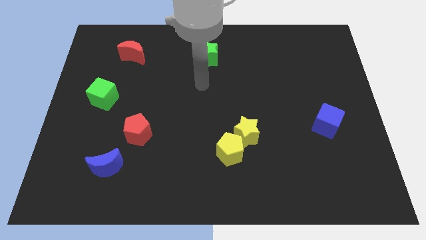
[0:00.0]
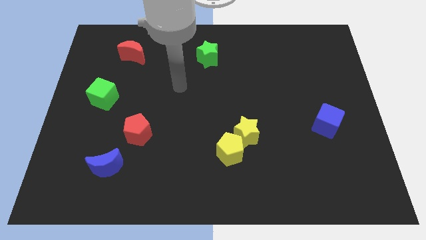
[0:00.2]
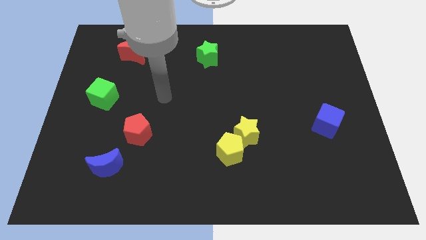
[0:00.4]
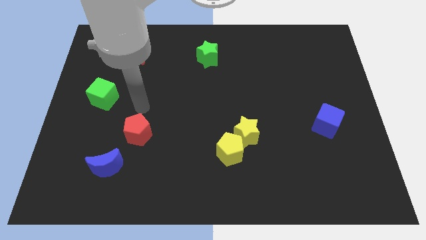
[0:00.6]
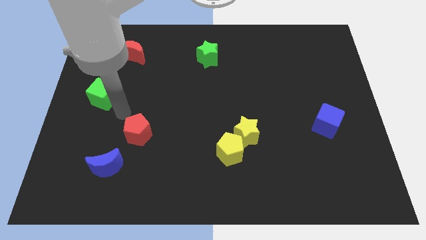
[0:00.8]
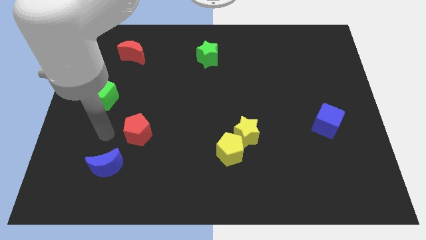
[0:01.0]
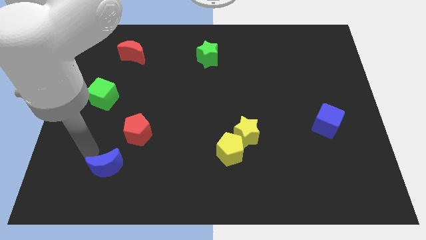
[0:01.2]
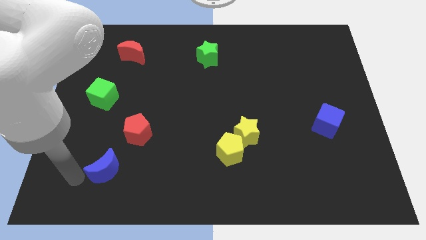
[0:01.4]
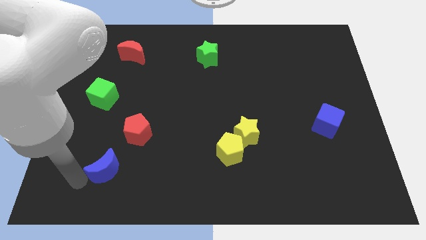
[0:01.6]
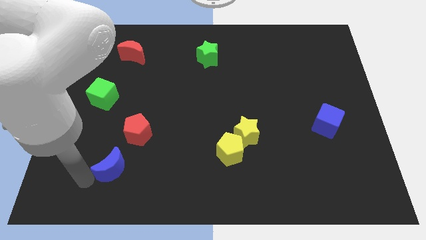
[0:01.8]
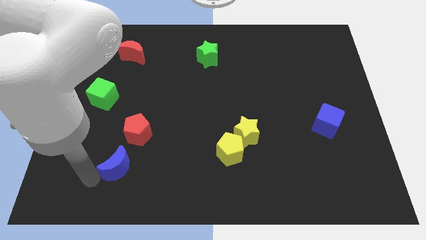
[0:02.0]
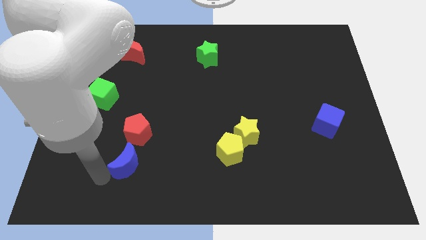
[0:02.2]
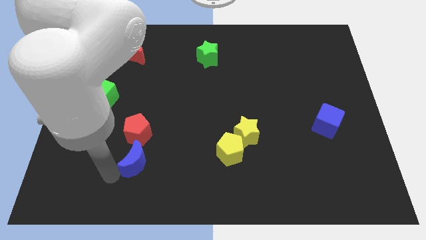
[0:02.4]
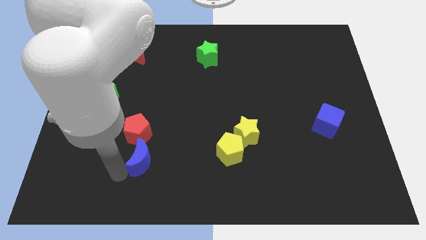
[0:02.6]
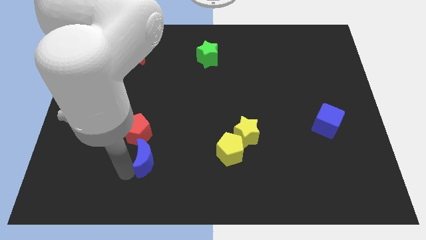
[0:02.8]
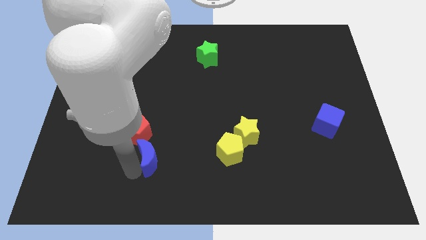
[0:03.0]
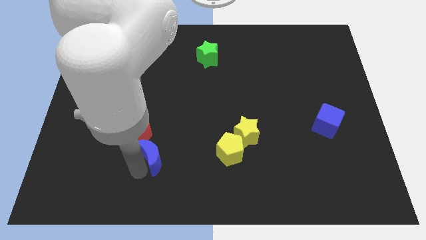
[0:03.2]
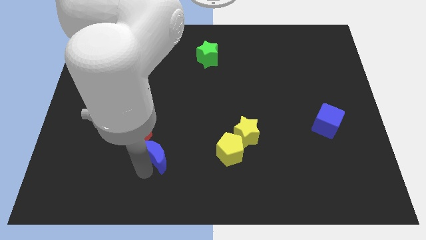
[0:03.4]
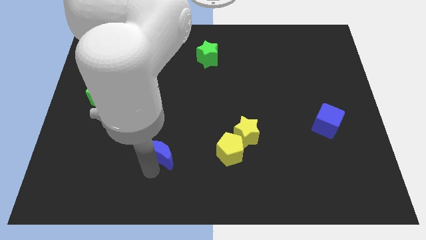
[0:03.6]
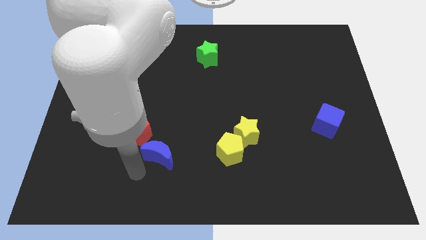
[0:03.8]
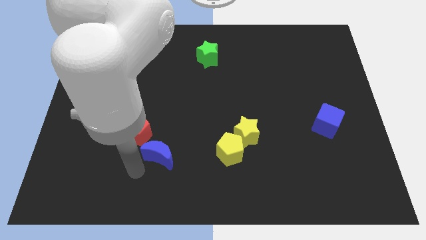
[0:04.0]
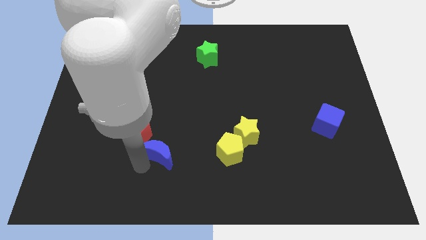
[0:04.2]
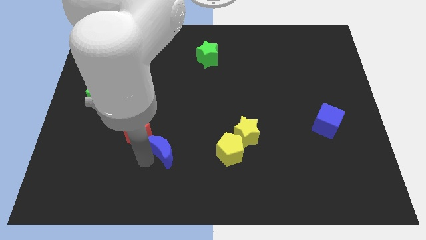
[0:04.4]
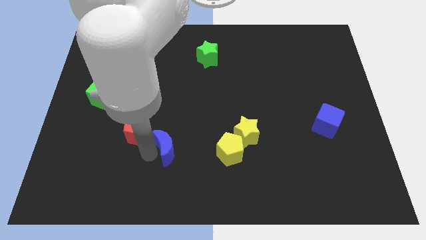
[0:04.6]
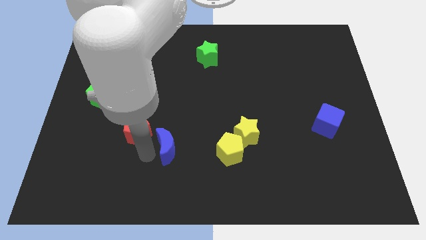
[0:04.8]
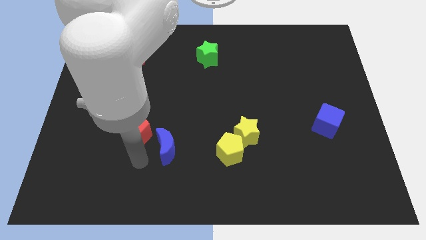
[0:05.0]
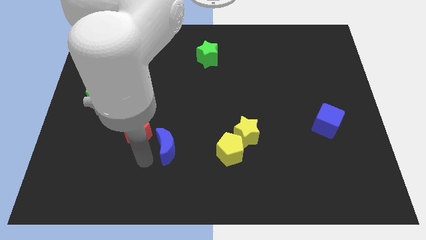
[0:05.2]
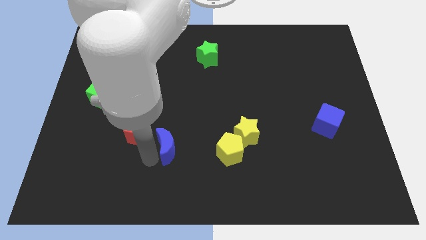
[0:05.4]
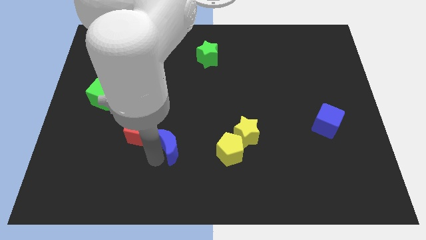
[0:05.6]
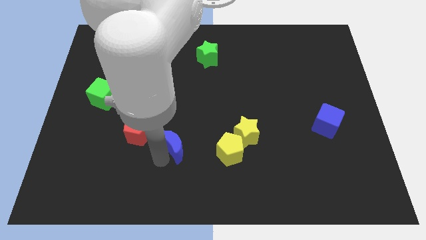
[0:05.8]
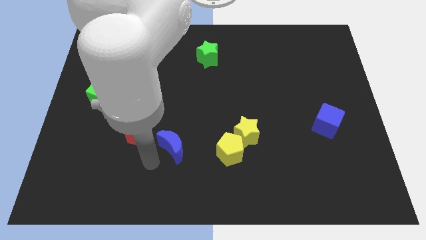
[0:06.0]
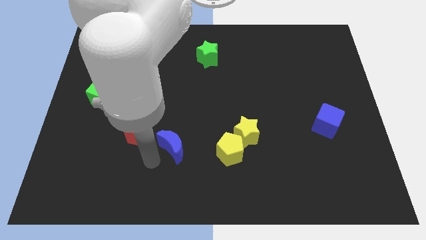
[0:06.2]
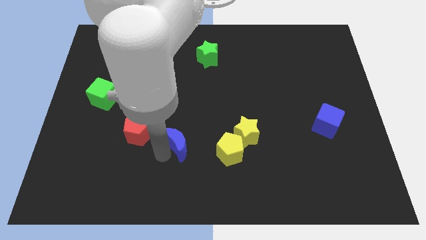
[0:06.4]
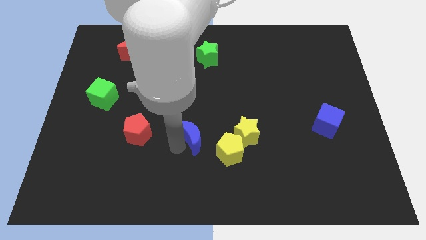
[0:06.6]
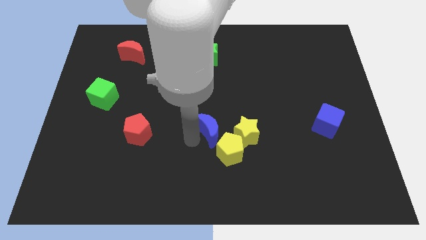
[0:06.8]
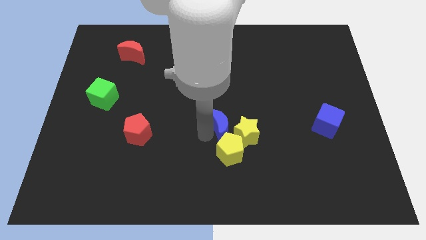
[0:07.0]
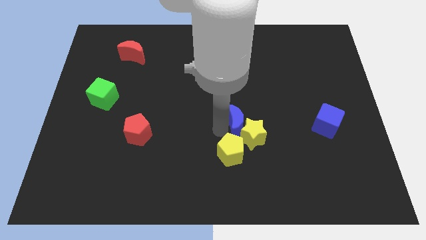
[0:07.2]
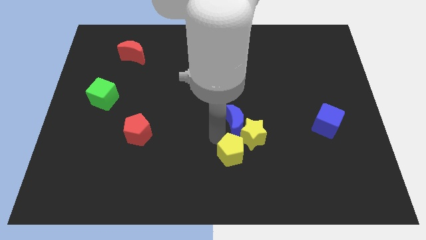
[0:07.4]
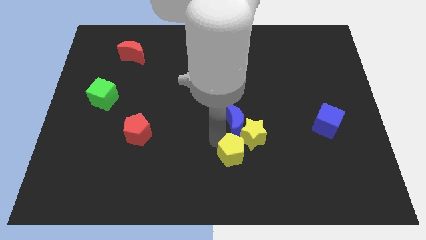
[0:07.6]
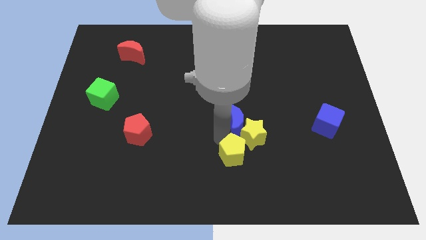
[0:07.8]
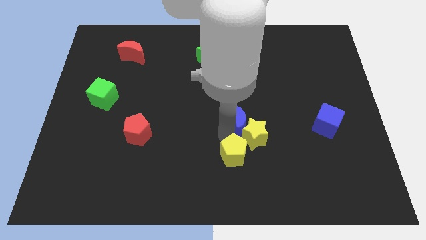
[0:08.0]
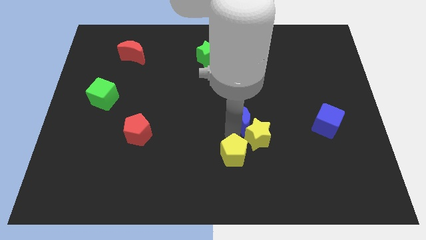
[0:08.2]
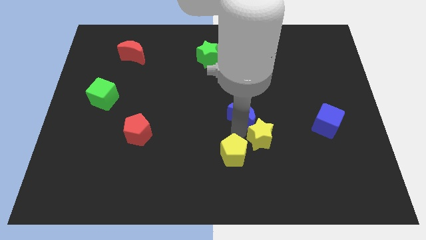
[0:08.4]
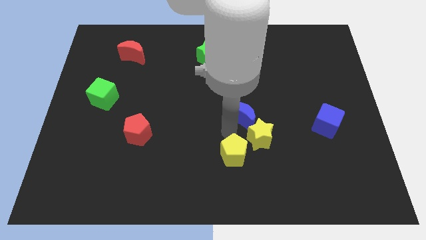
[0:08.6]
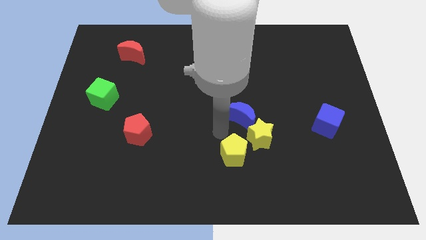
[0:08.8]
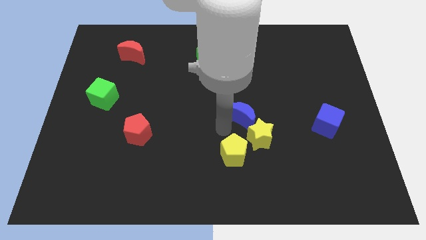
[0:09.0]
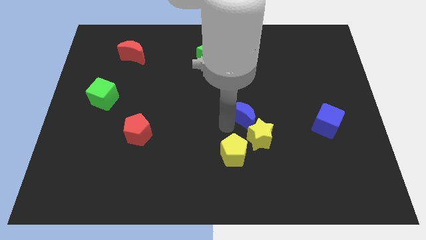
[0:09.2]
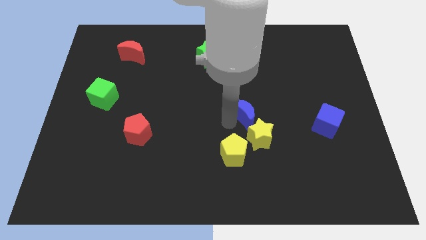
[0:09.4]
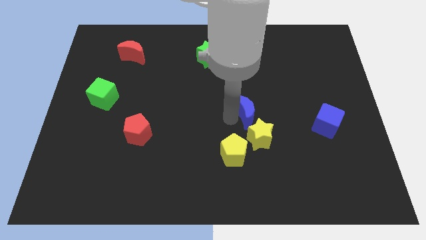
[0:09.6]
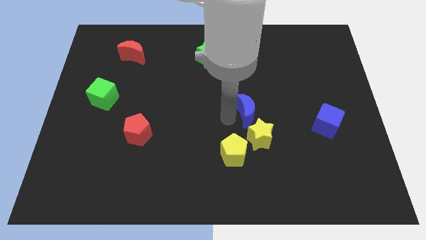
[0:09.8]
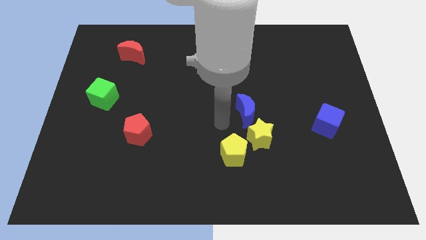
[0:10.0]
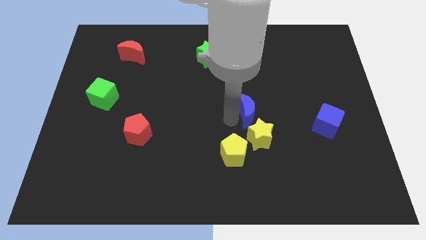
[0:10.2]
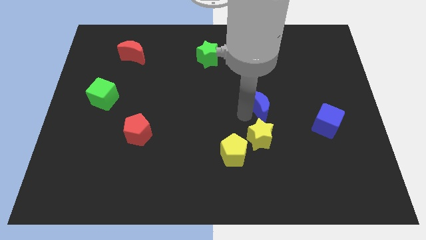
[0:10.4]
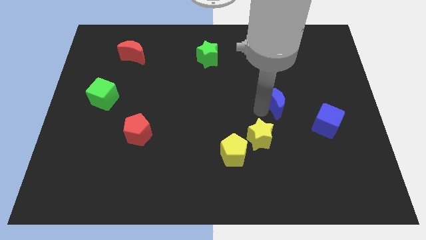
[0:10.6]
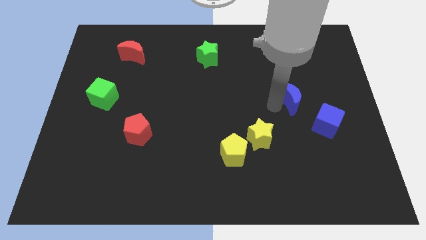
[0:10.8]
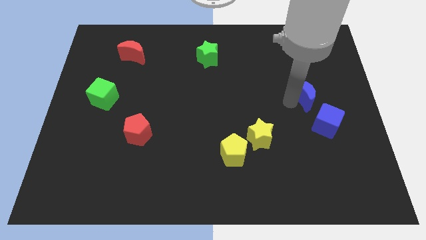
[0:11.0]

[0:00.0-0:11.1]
move the blue moon to the top side of the blue cube

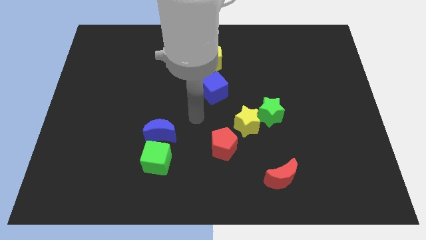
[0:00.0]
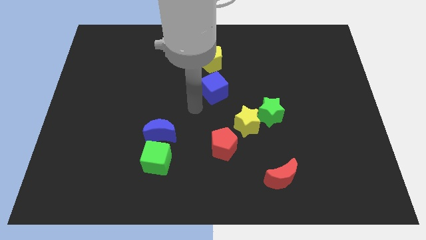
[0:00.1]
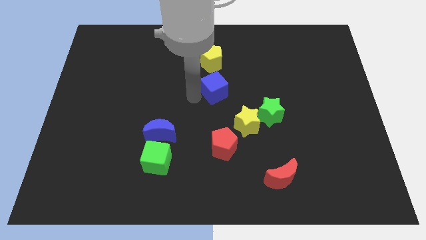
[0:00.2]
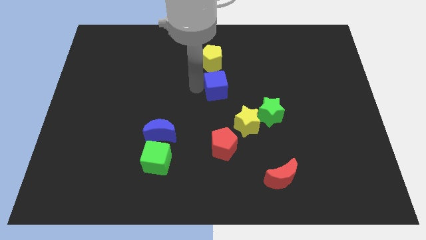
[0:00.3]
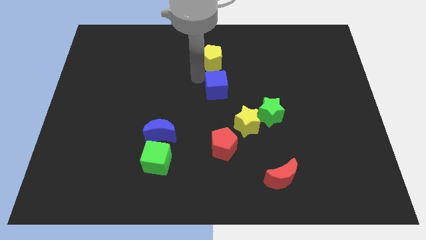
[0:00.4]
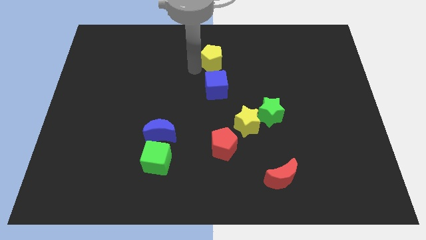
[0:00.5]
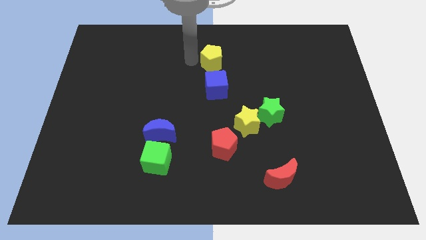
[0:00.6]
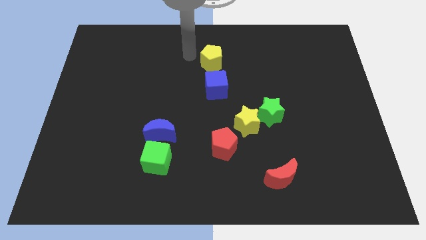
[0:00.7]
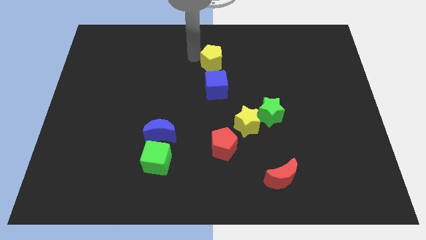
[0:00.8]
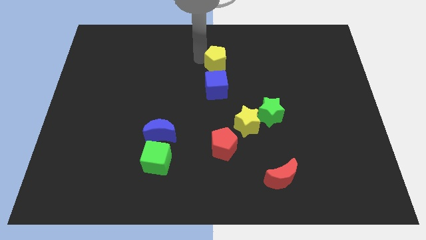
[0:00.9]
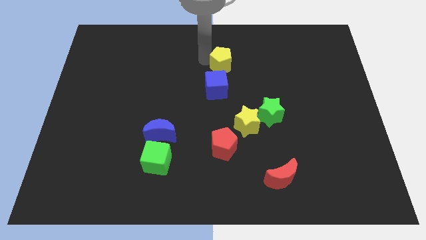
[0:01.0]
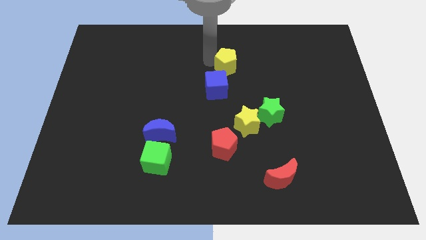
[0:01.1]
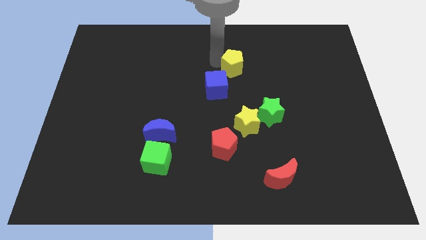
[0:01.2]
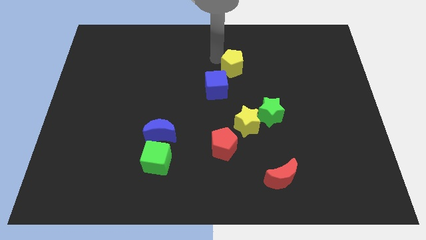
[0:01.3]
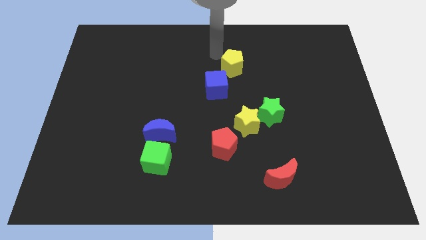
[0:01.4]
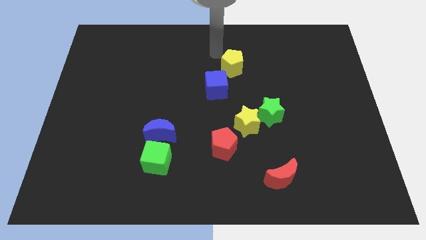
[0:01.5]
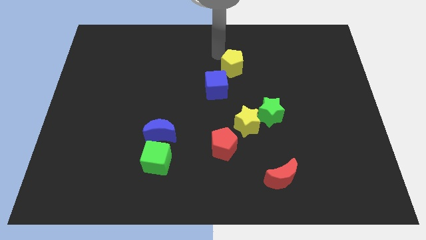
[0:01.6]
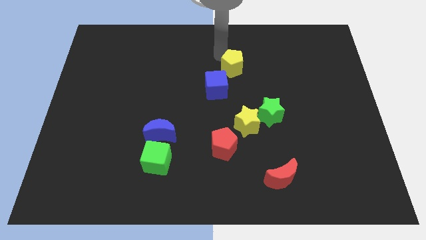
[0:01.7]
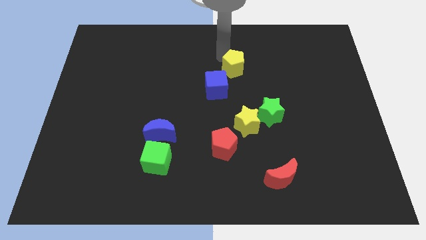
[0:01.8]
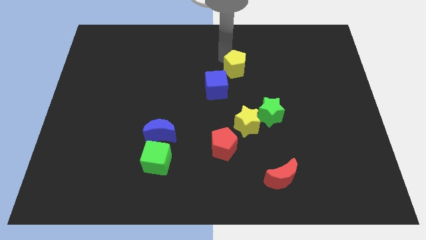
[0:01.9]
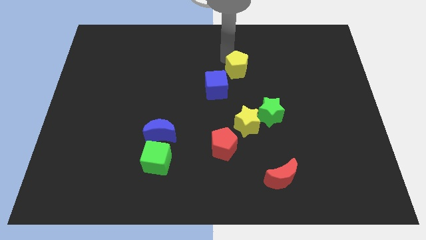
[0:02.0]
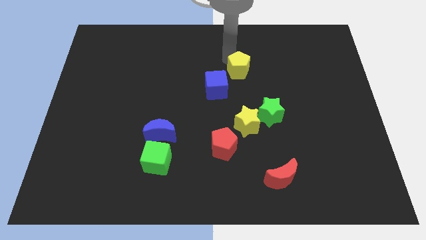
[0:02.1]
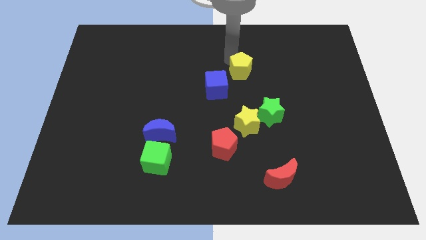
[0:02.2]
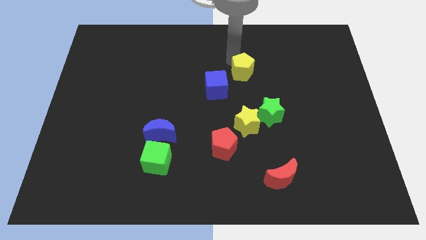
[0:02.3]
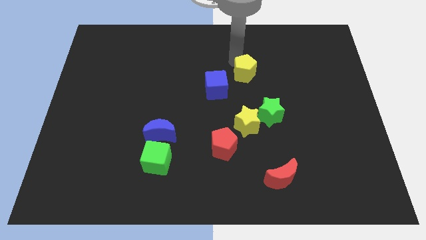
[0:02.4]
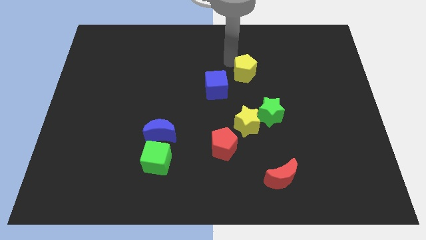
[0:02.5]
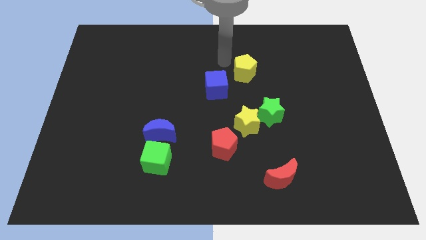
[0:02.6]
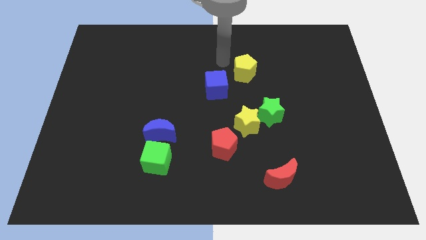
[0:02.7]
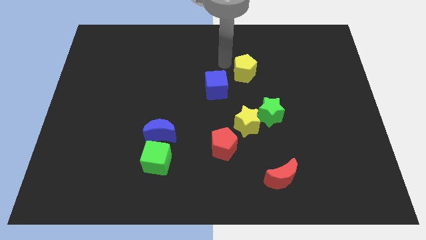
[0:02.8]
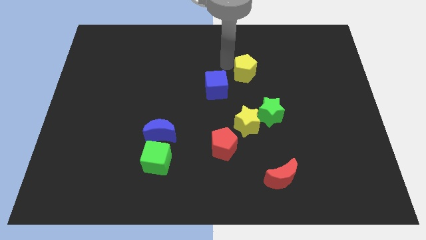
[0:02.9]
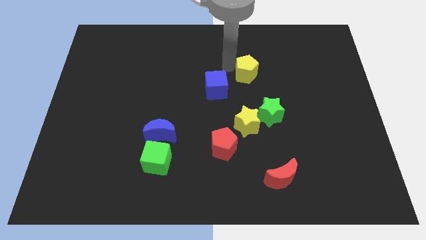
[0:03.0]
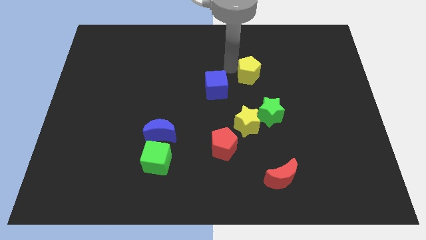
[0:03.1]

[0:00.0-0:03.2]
move the yellow pentagon to the top of the green star
